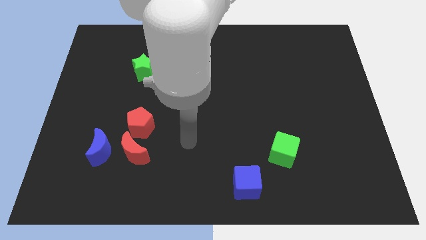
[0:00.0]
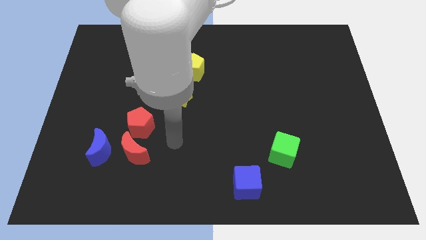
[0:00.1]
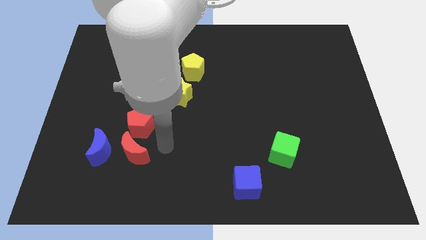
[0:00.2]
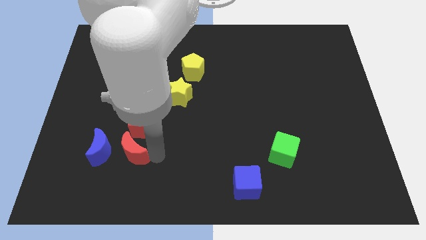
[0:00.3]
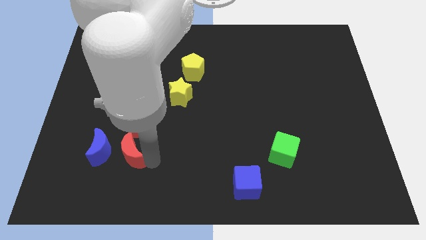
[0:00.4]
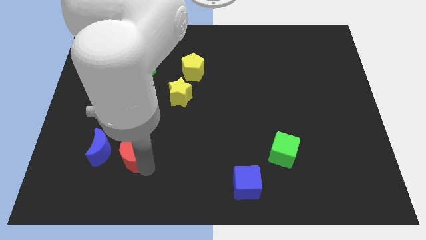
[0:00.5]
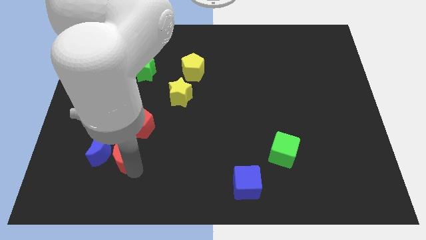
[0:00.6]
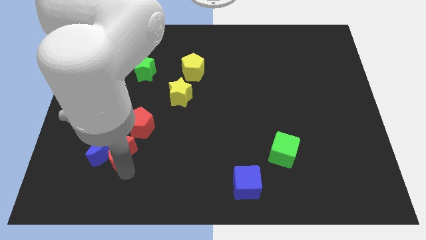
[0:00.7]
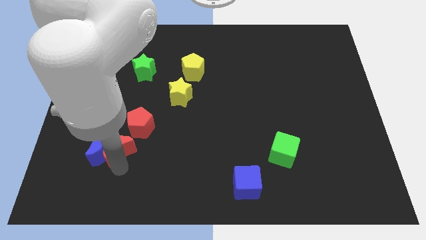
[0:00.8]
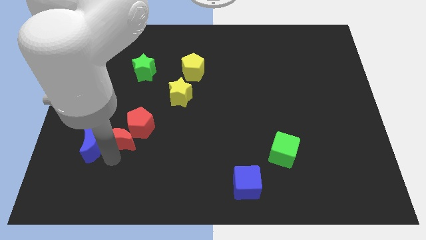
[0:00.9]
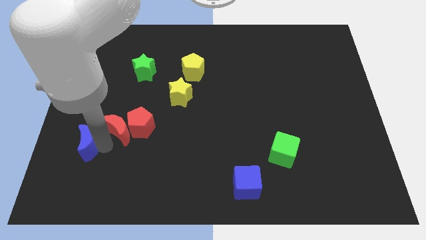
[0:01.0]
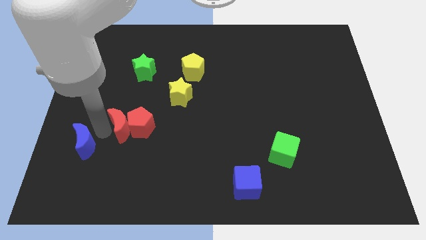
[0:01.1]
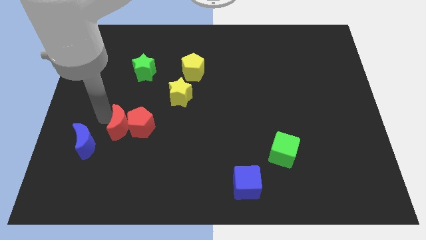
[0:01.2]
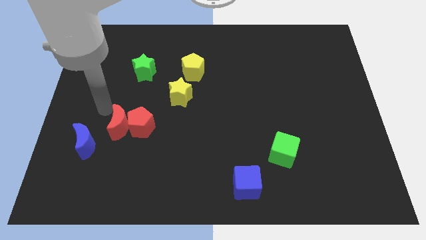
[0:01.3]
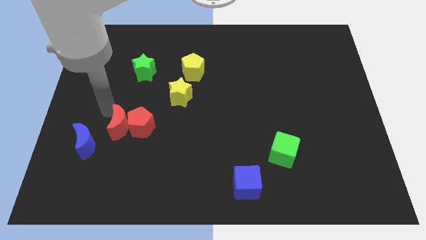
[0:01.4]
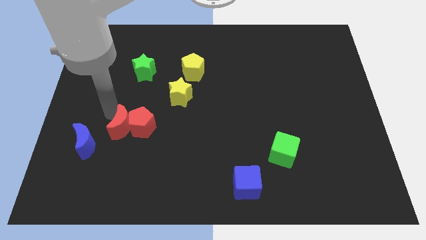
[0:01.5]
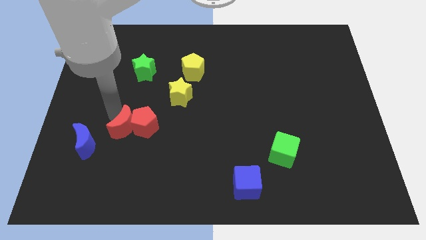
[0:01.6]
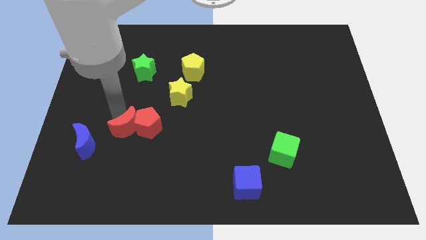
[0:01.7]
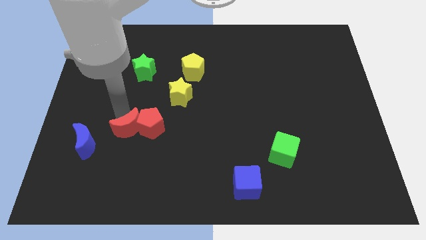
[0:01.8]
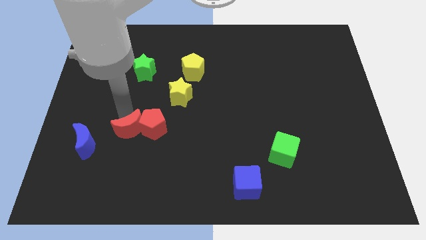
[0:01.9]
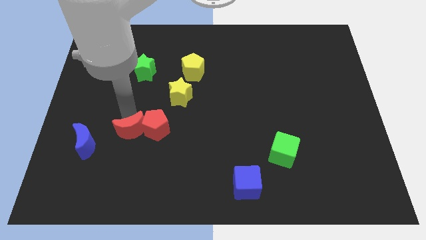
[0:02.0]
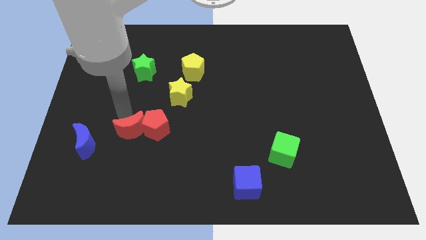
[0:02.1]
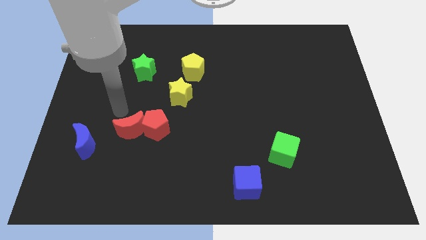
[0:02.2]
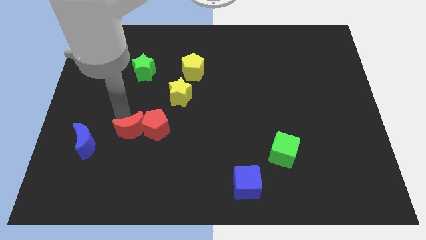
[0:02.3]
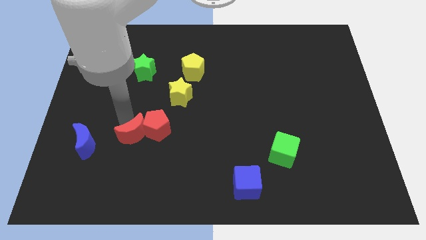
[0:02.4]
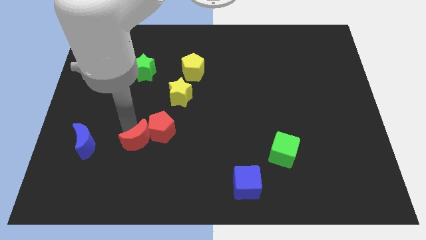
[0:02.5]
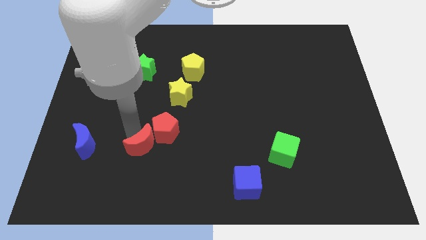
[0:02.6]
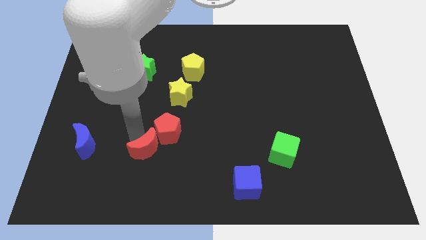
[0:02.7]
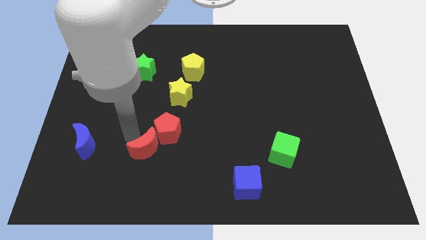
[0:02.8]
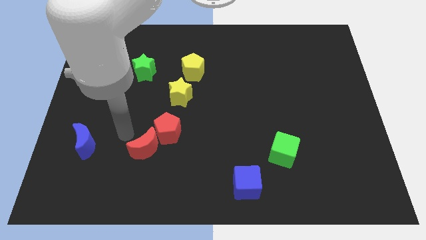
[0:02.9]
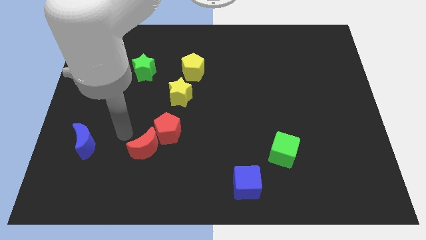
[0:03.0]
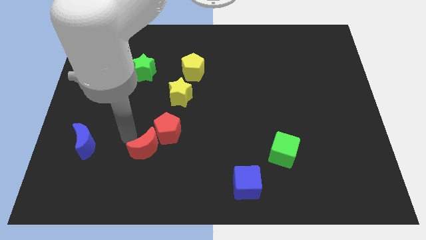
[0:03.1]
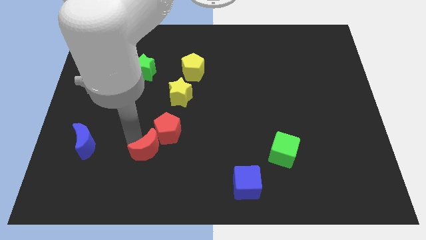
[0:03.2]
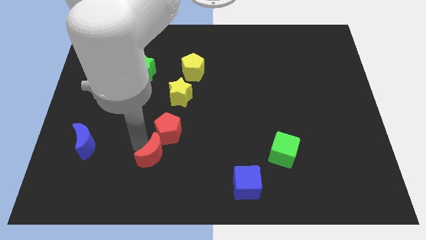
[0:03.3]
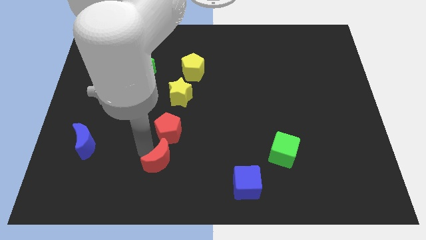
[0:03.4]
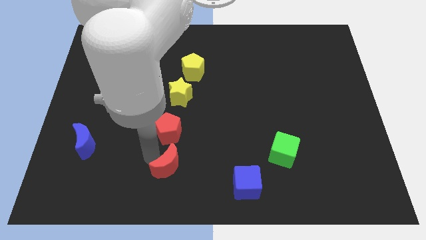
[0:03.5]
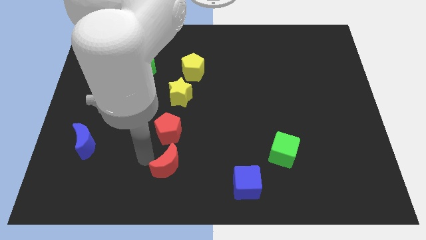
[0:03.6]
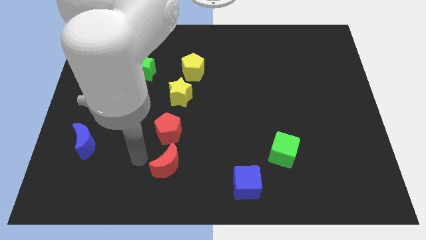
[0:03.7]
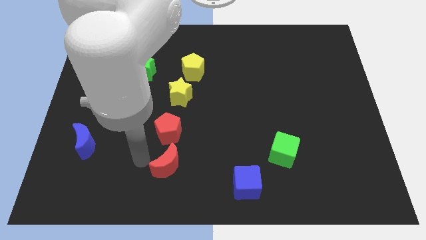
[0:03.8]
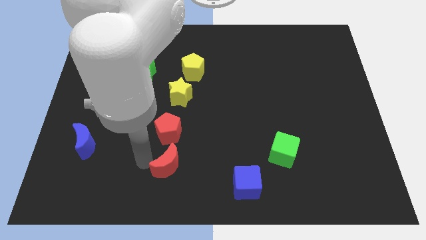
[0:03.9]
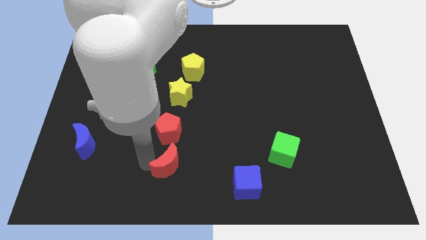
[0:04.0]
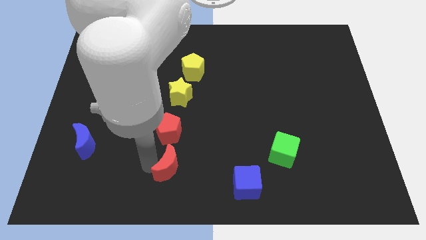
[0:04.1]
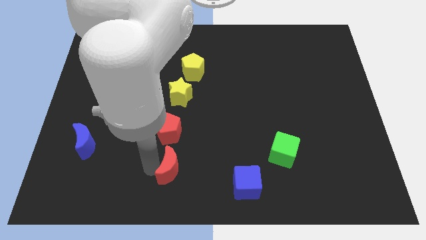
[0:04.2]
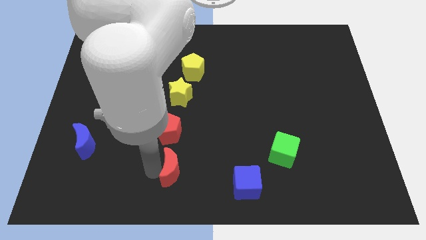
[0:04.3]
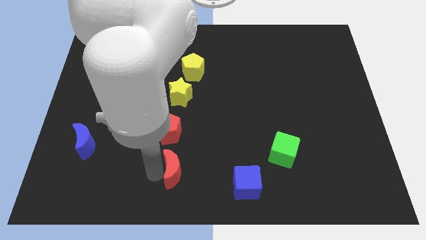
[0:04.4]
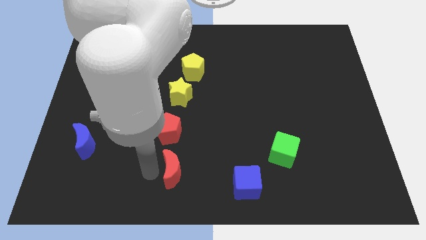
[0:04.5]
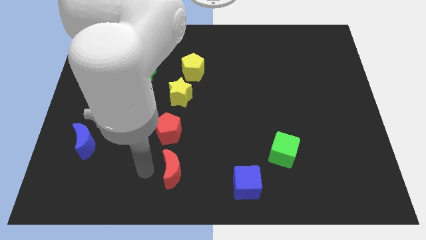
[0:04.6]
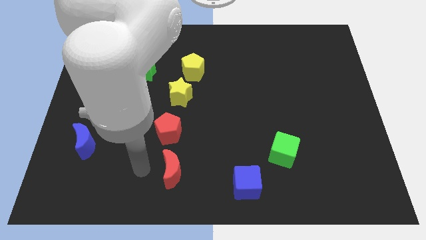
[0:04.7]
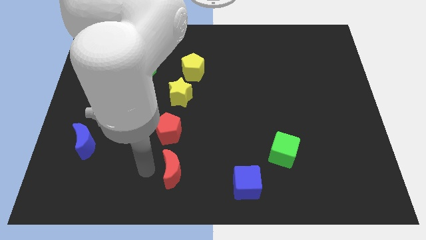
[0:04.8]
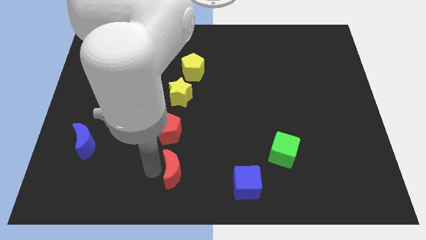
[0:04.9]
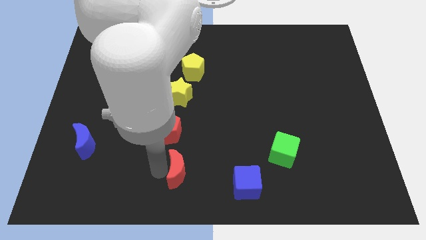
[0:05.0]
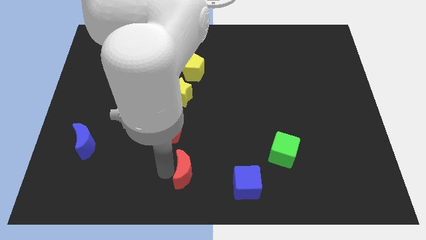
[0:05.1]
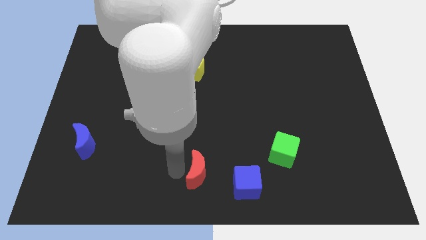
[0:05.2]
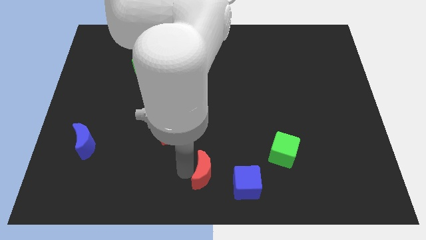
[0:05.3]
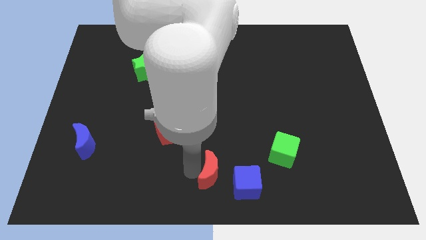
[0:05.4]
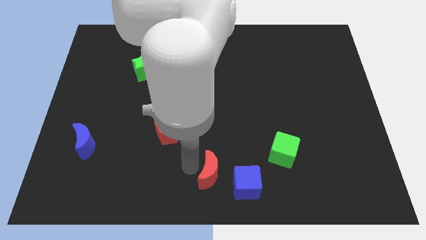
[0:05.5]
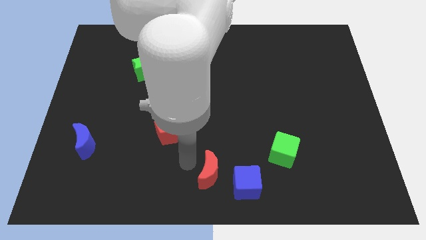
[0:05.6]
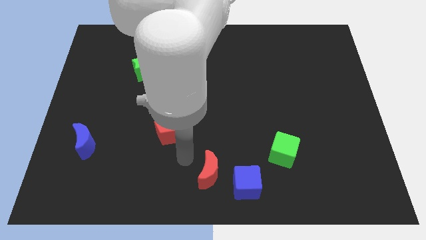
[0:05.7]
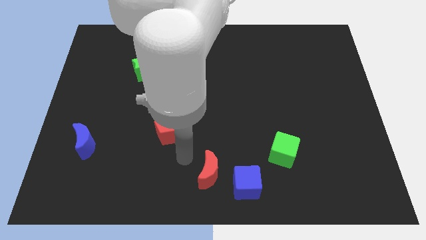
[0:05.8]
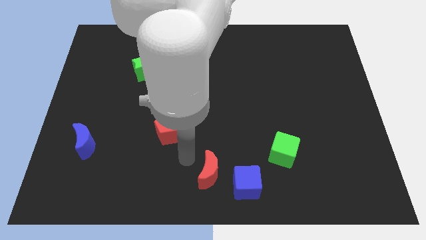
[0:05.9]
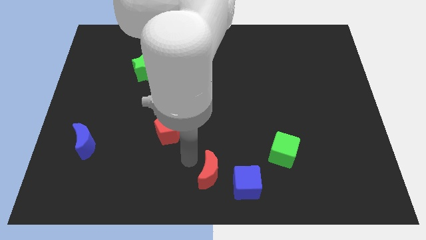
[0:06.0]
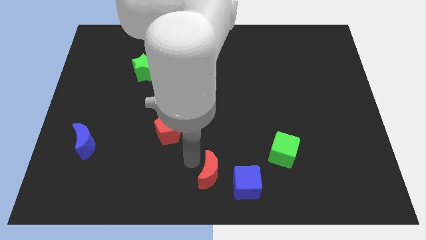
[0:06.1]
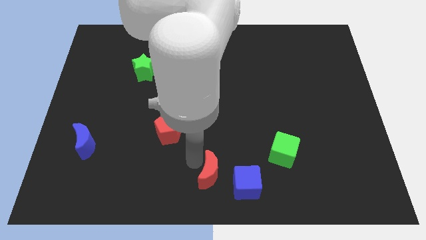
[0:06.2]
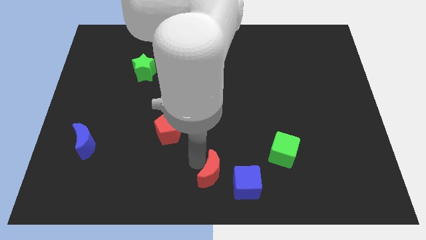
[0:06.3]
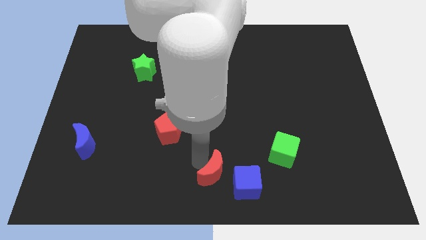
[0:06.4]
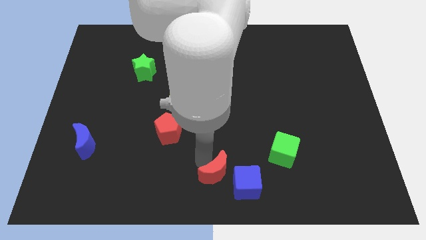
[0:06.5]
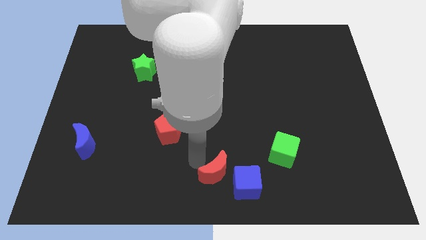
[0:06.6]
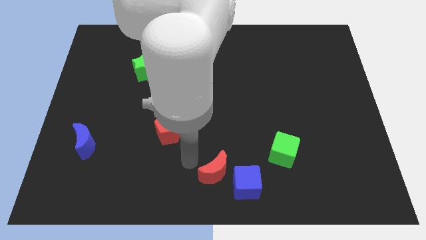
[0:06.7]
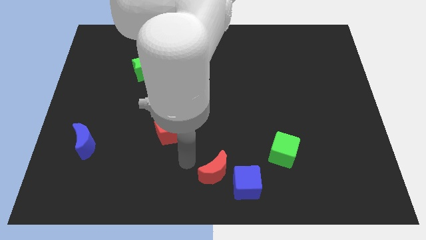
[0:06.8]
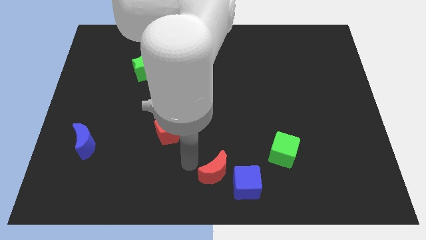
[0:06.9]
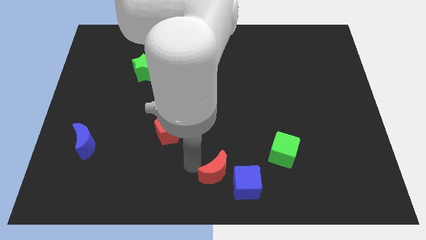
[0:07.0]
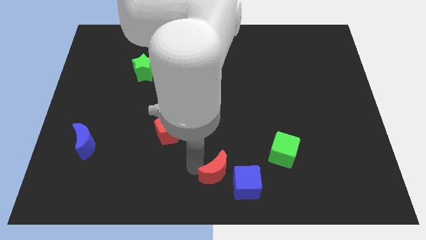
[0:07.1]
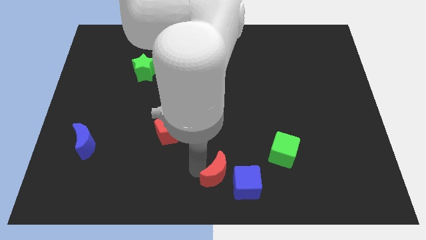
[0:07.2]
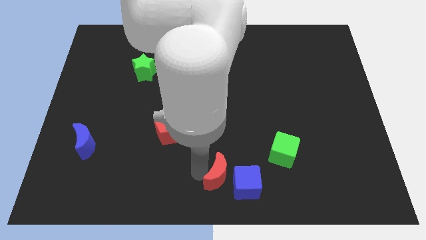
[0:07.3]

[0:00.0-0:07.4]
push the red moon close to the blue cube
